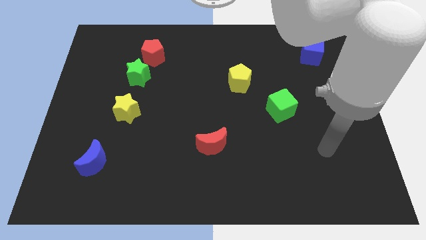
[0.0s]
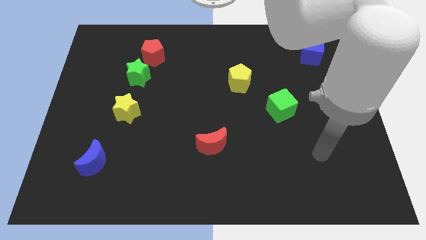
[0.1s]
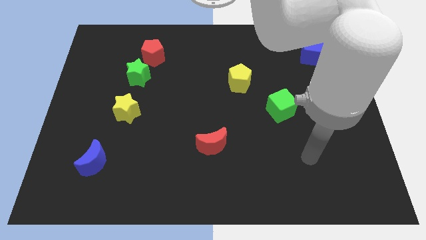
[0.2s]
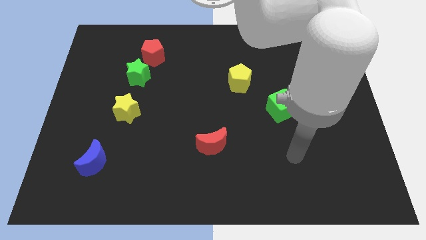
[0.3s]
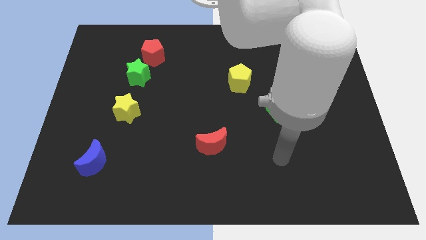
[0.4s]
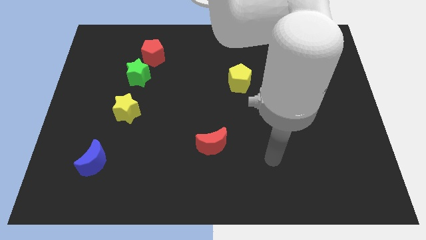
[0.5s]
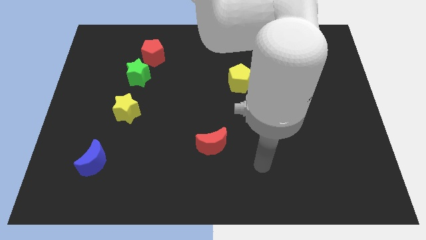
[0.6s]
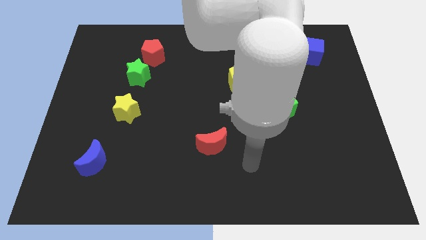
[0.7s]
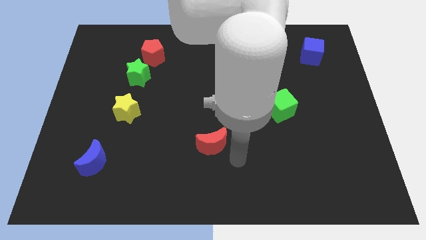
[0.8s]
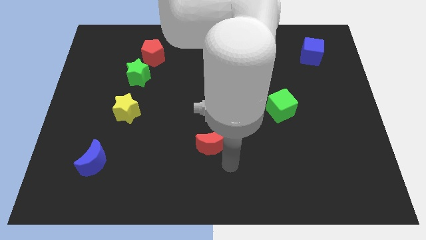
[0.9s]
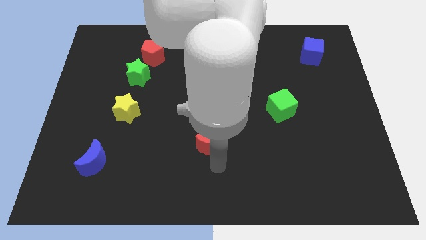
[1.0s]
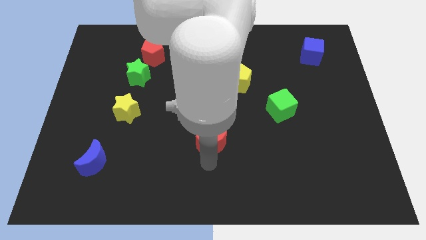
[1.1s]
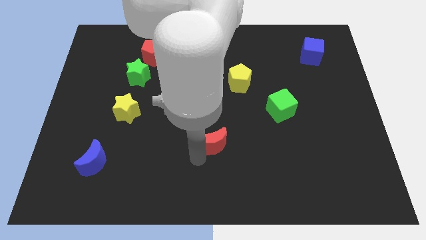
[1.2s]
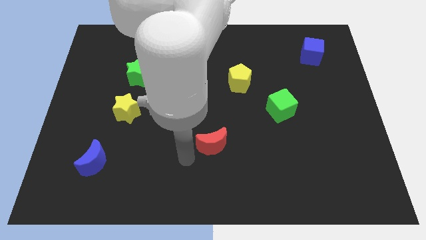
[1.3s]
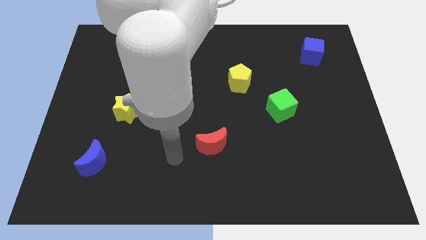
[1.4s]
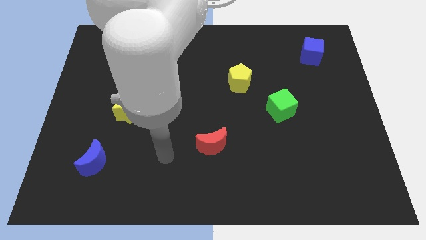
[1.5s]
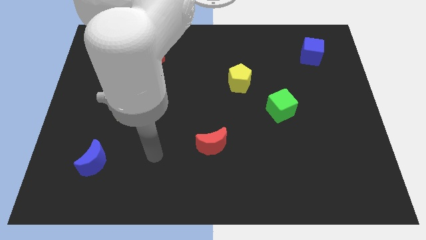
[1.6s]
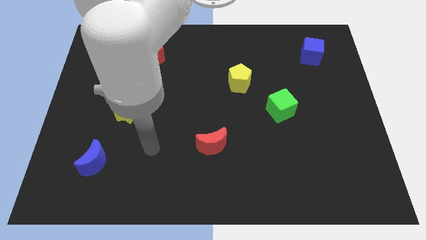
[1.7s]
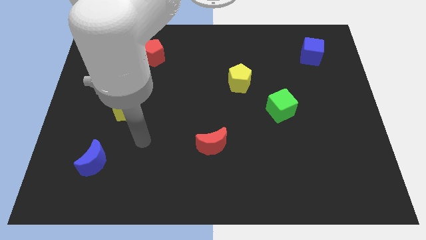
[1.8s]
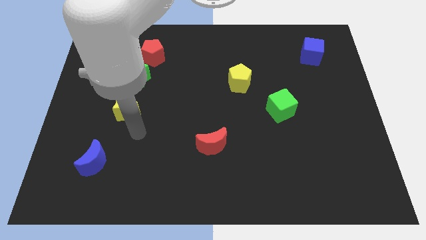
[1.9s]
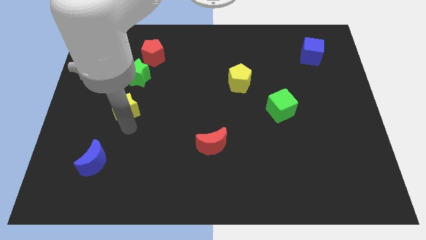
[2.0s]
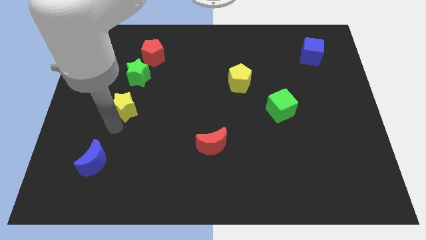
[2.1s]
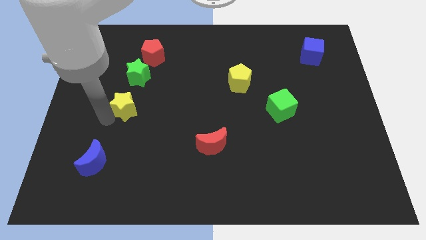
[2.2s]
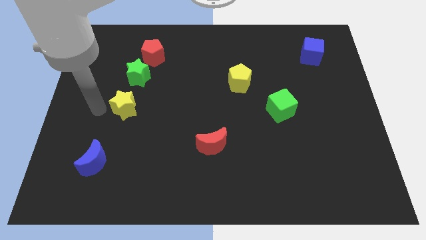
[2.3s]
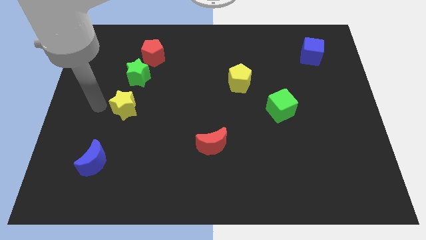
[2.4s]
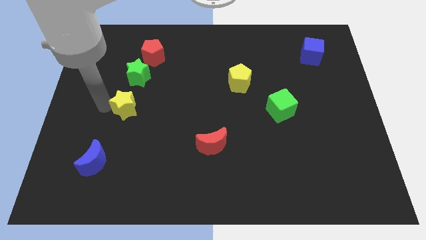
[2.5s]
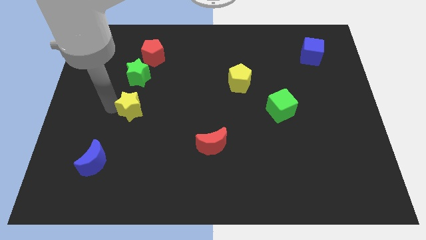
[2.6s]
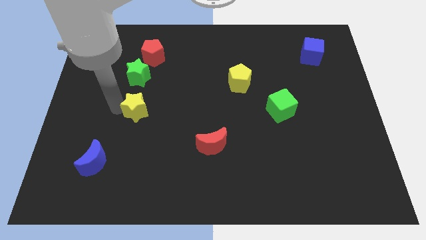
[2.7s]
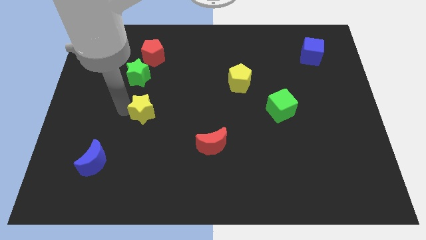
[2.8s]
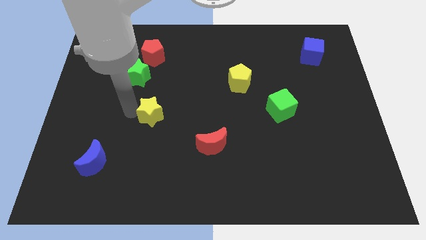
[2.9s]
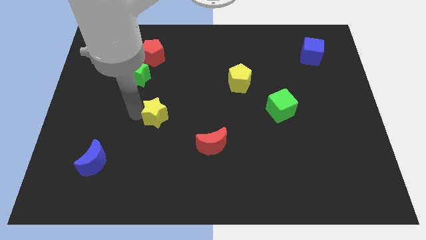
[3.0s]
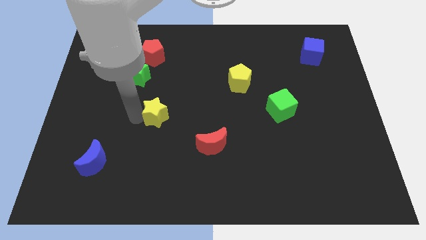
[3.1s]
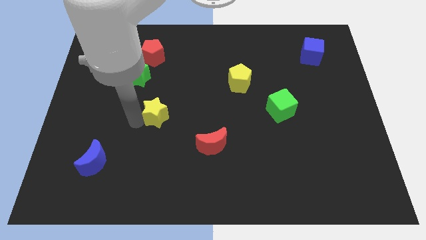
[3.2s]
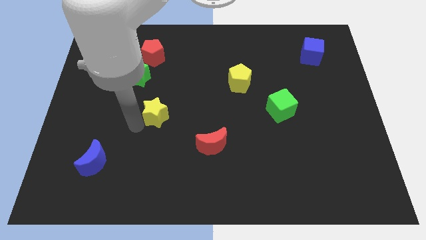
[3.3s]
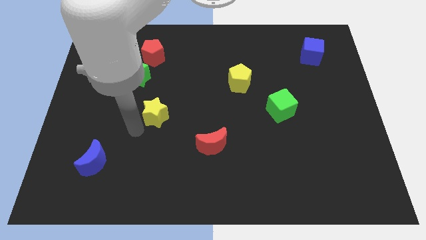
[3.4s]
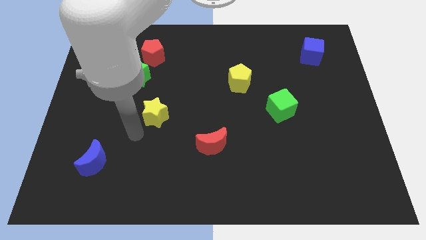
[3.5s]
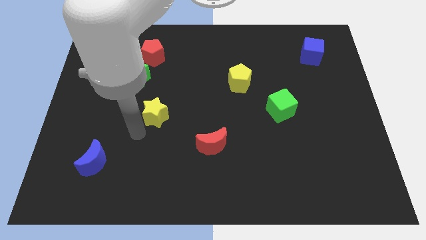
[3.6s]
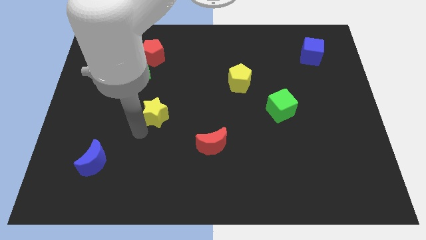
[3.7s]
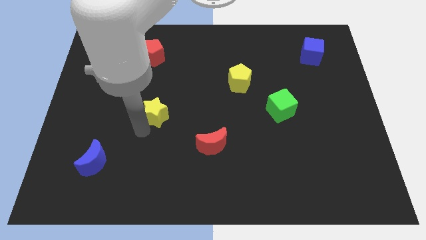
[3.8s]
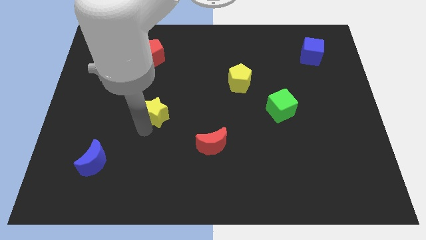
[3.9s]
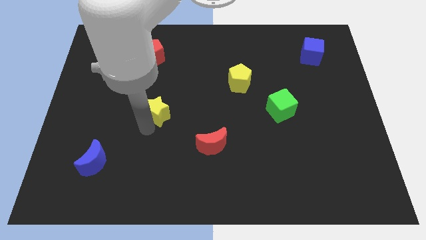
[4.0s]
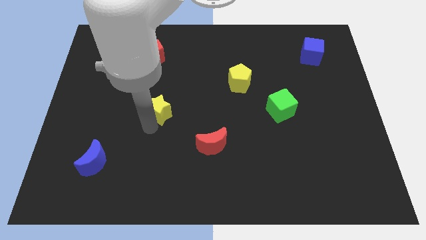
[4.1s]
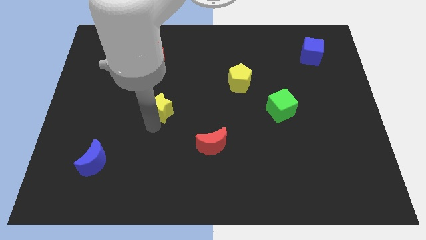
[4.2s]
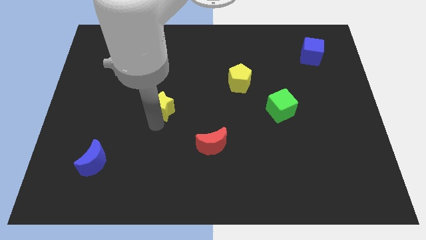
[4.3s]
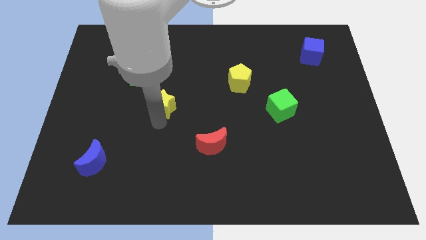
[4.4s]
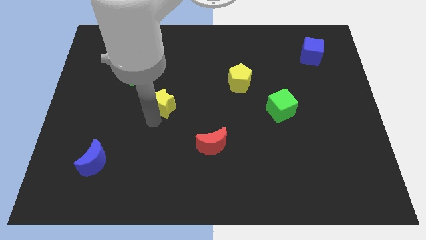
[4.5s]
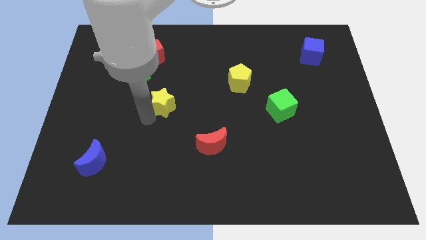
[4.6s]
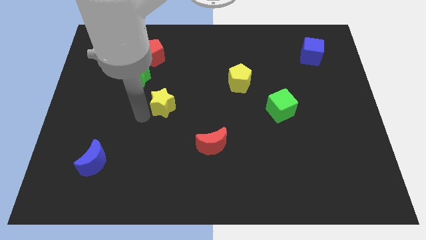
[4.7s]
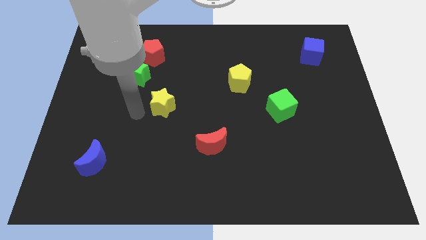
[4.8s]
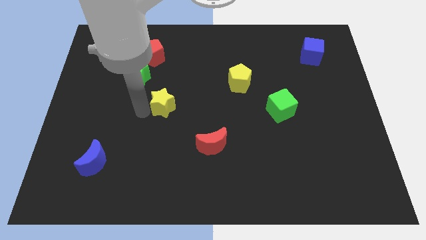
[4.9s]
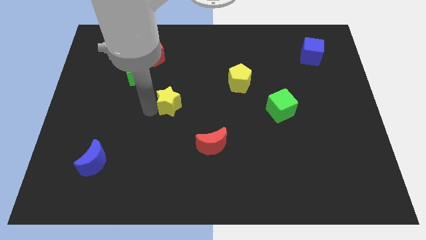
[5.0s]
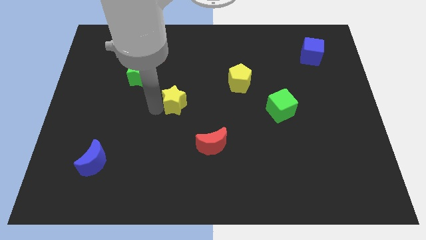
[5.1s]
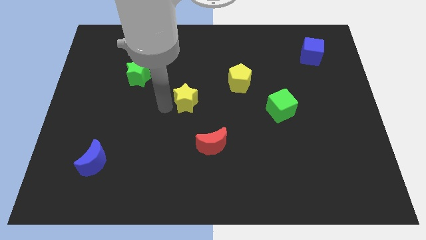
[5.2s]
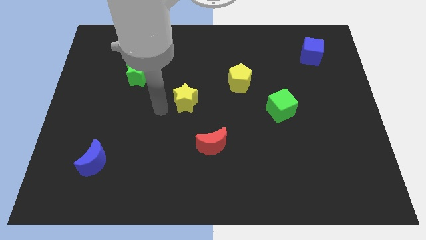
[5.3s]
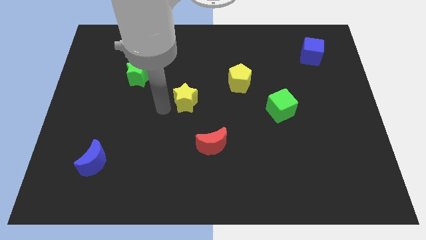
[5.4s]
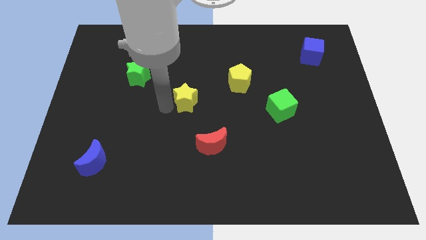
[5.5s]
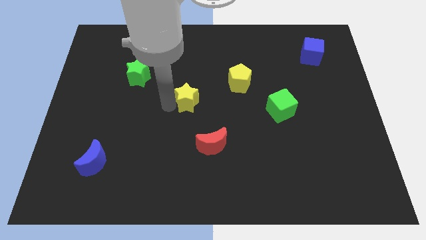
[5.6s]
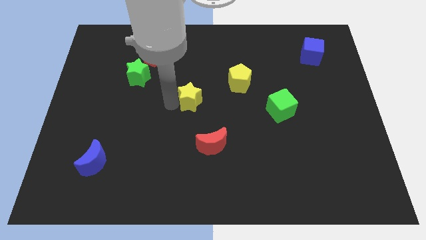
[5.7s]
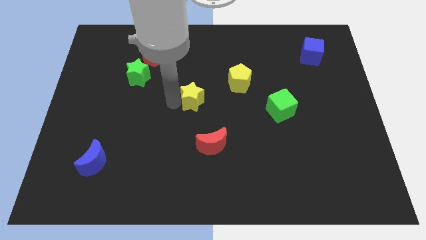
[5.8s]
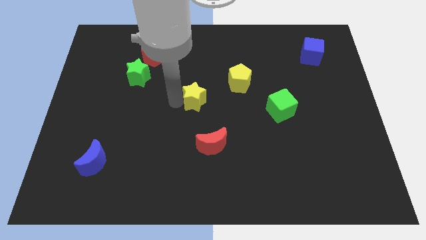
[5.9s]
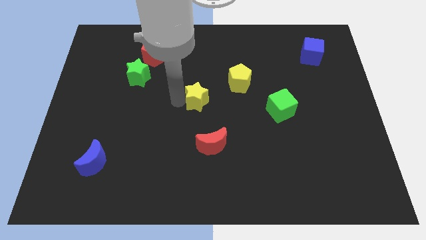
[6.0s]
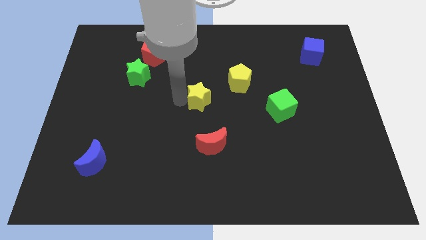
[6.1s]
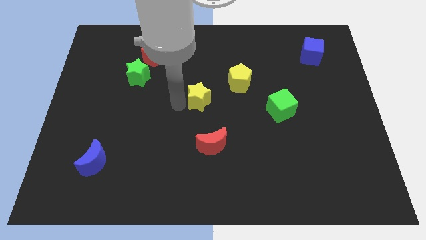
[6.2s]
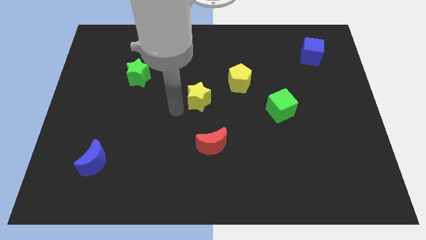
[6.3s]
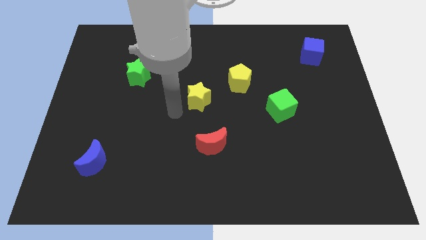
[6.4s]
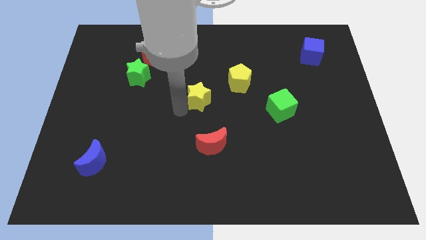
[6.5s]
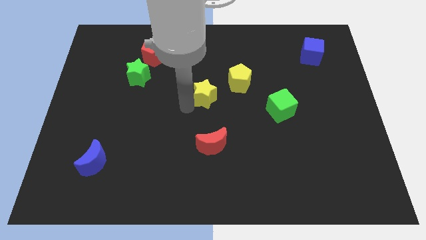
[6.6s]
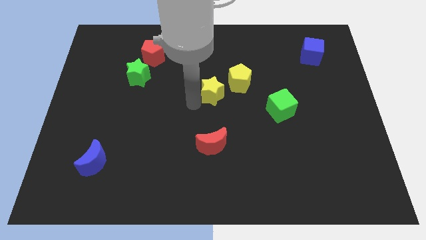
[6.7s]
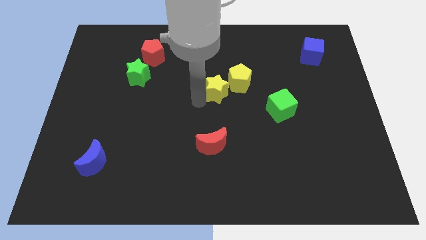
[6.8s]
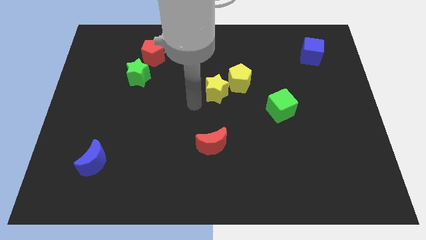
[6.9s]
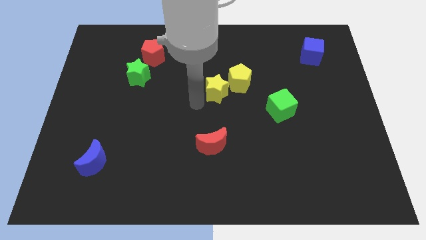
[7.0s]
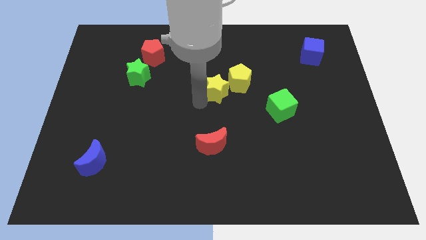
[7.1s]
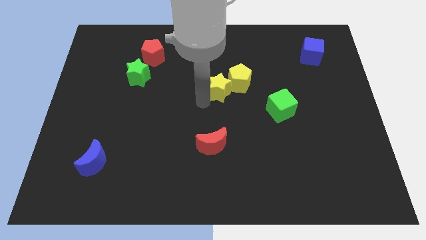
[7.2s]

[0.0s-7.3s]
put the yellow star to the yellow pentagon
